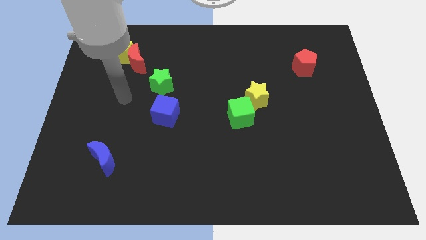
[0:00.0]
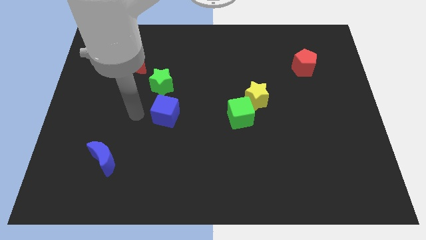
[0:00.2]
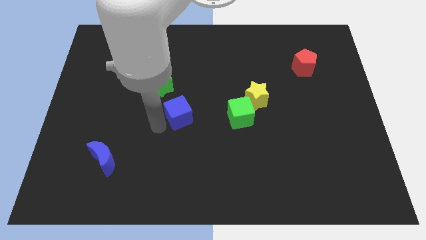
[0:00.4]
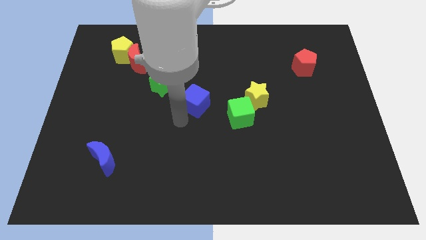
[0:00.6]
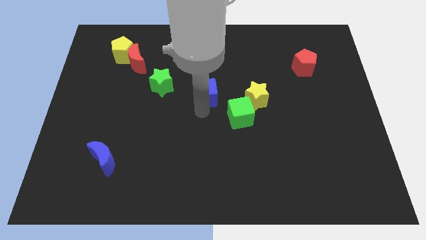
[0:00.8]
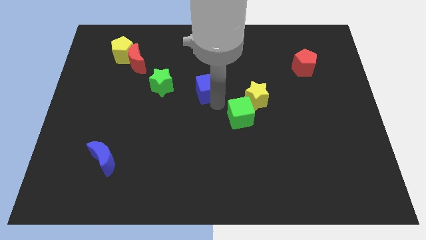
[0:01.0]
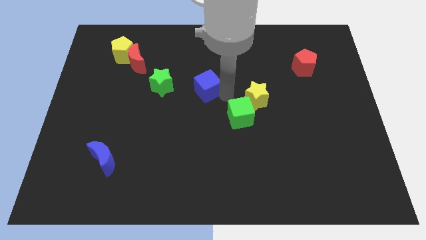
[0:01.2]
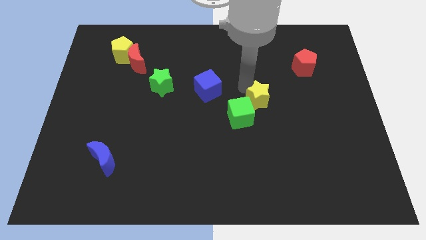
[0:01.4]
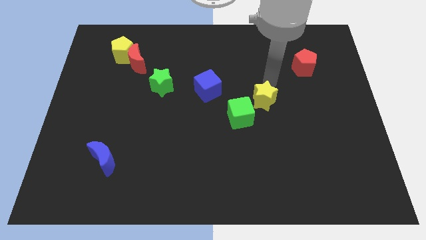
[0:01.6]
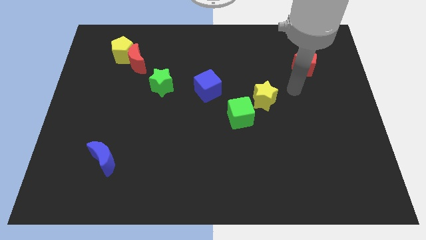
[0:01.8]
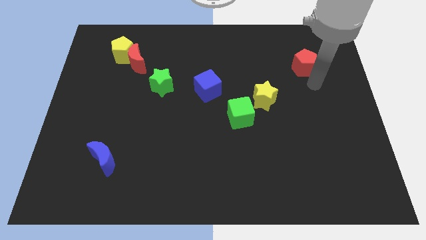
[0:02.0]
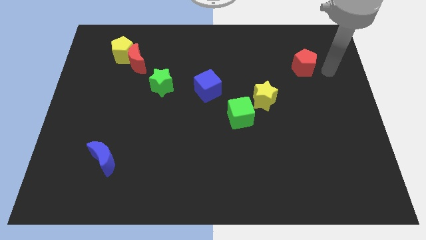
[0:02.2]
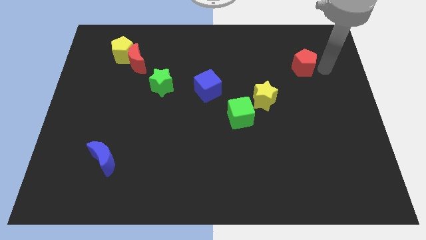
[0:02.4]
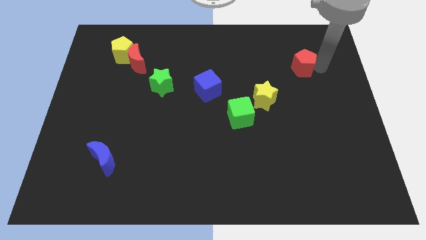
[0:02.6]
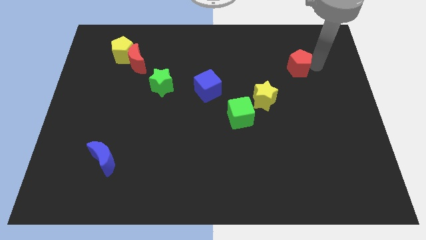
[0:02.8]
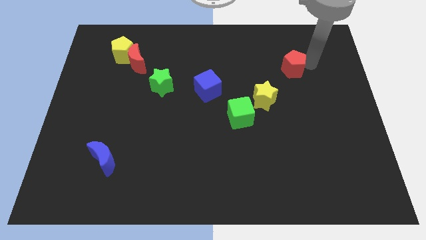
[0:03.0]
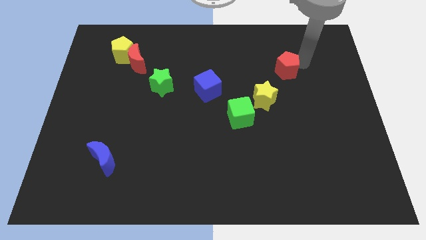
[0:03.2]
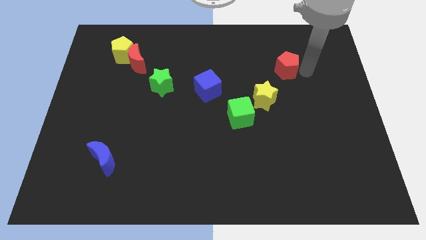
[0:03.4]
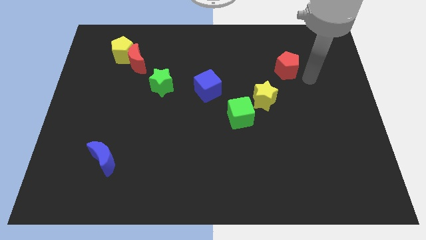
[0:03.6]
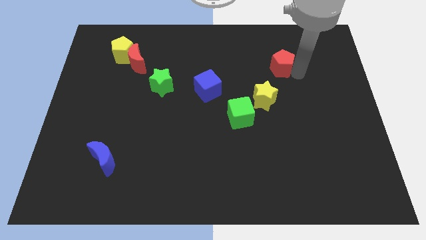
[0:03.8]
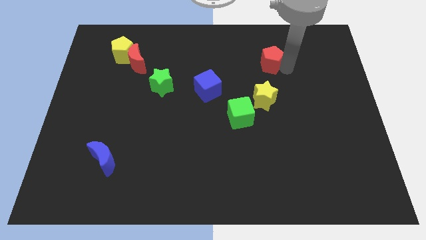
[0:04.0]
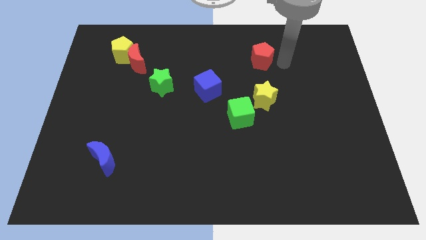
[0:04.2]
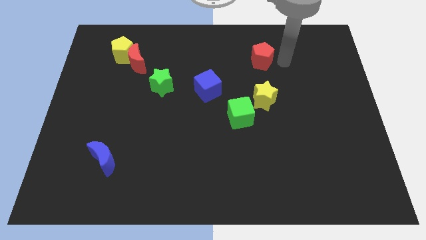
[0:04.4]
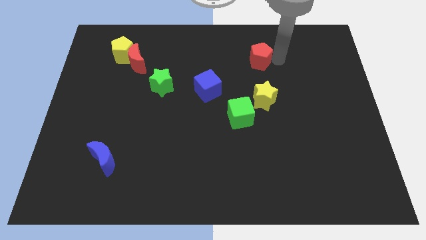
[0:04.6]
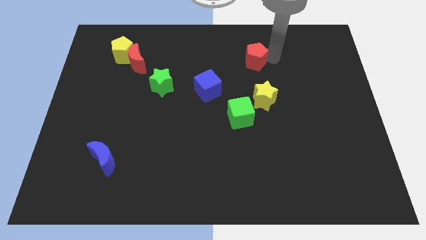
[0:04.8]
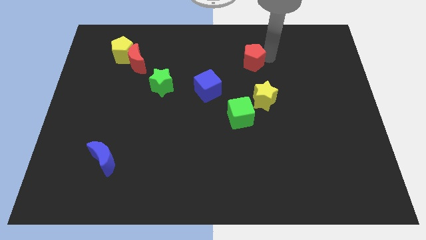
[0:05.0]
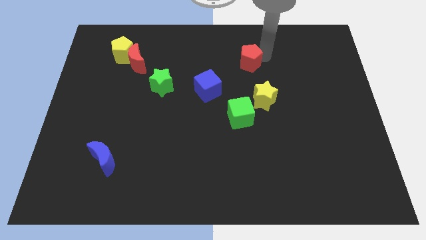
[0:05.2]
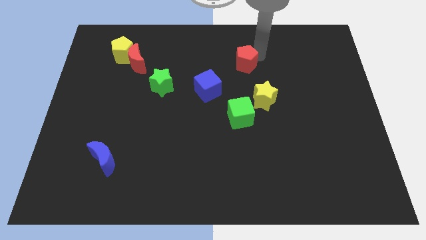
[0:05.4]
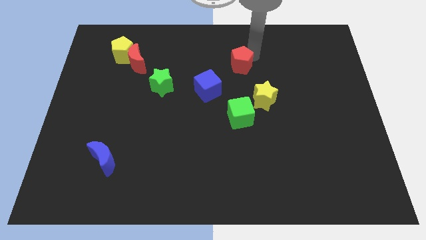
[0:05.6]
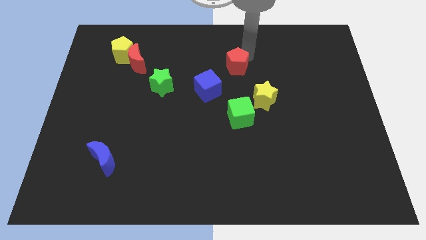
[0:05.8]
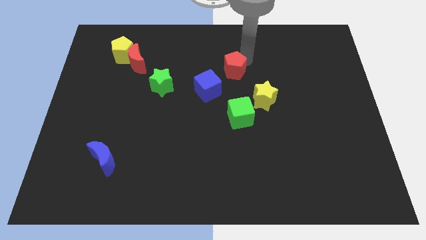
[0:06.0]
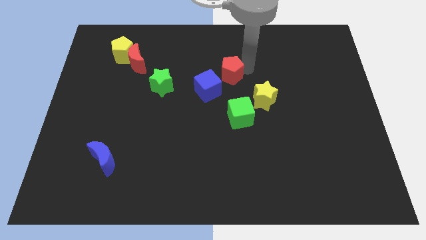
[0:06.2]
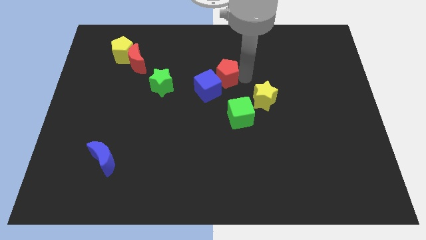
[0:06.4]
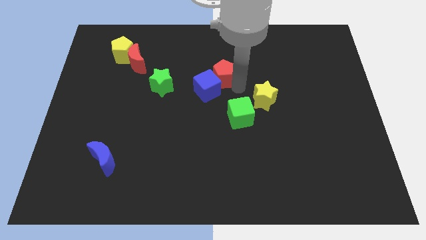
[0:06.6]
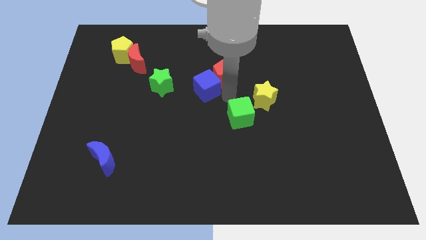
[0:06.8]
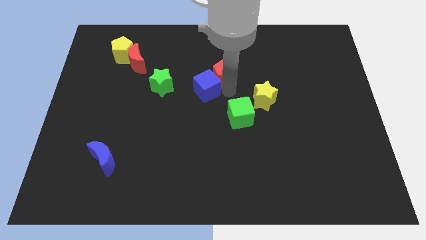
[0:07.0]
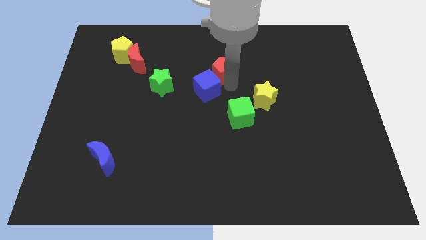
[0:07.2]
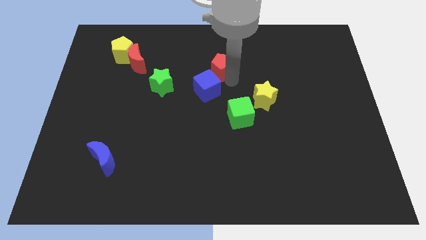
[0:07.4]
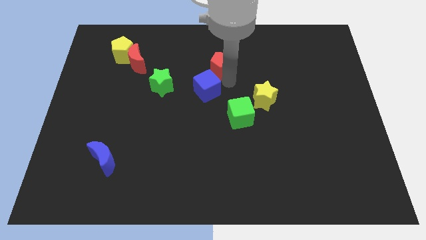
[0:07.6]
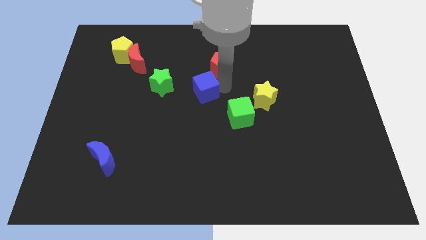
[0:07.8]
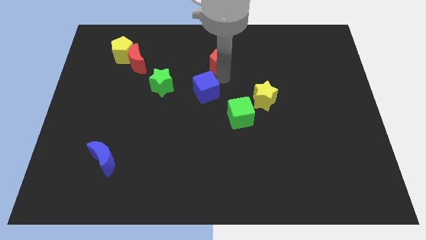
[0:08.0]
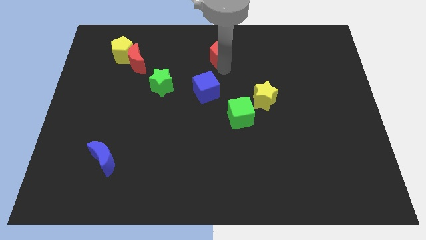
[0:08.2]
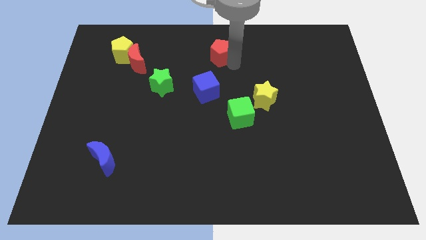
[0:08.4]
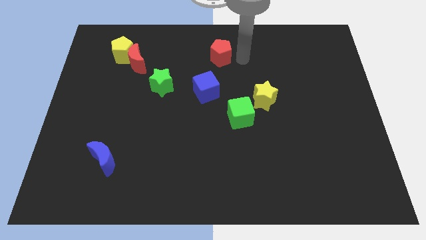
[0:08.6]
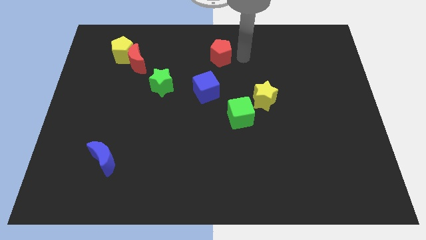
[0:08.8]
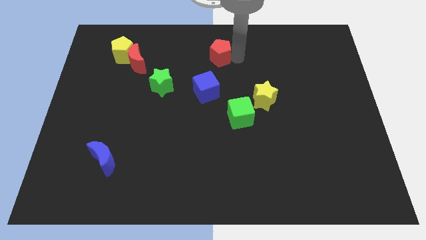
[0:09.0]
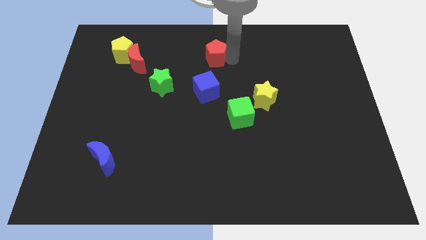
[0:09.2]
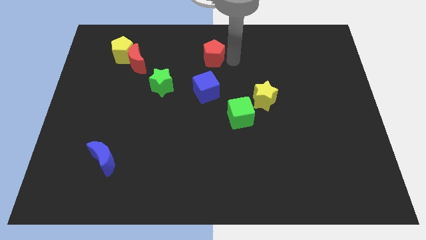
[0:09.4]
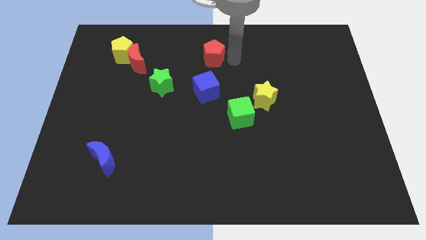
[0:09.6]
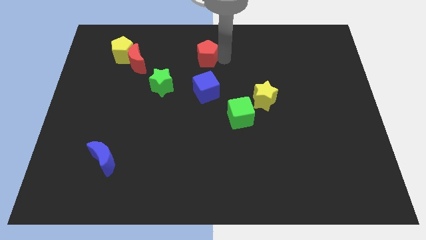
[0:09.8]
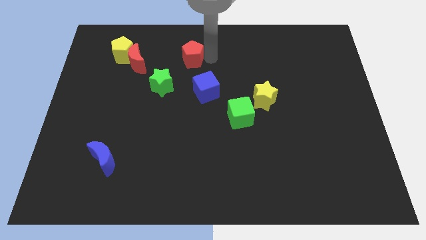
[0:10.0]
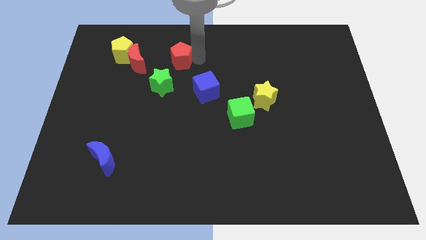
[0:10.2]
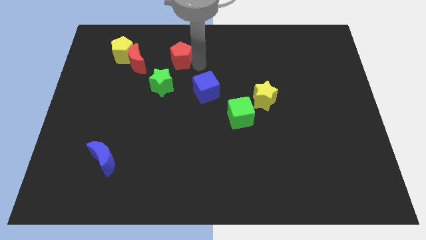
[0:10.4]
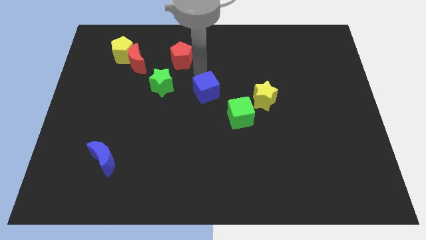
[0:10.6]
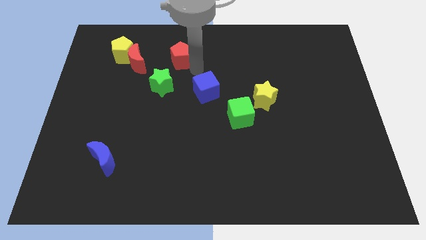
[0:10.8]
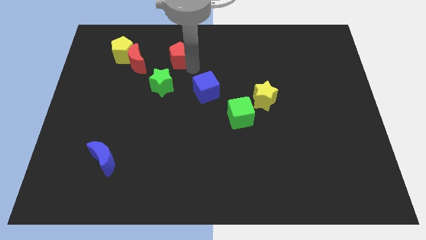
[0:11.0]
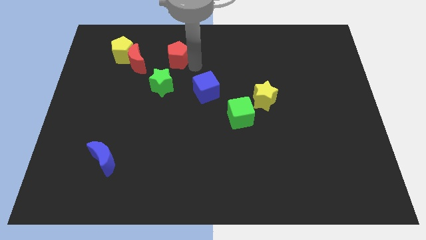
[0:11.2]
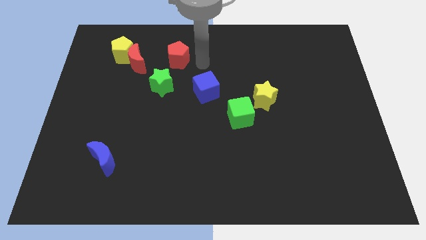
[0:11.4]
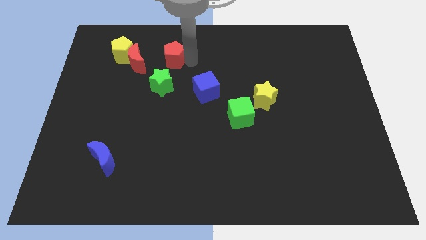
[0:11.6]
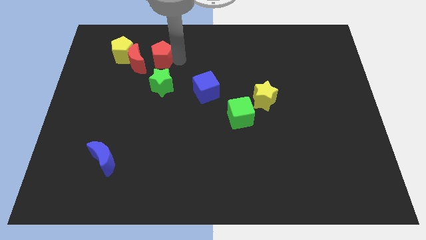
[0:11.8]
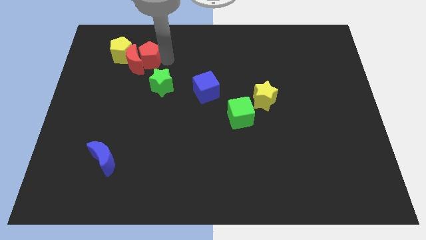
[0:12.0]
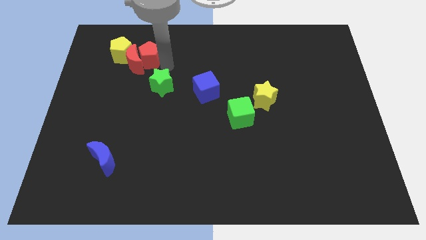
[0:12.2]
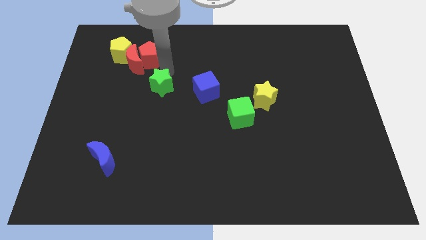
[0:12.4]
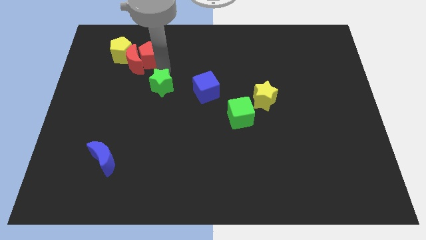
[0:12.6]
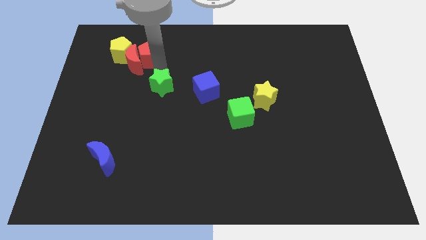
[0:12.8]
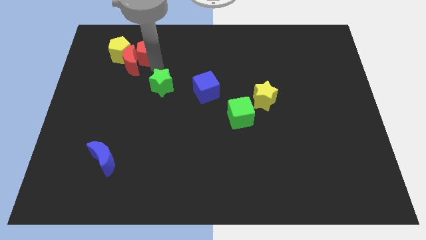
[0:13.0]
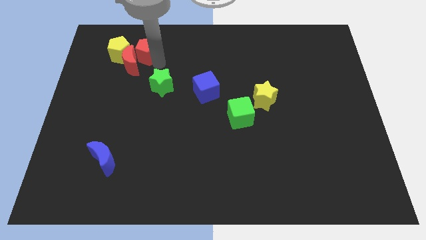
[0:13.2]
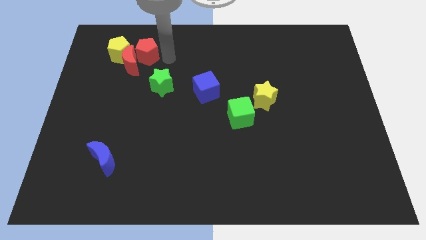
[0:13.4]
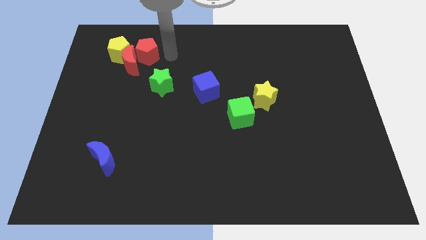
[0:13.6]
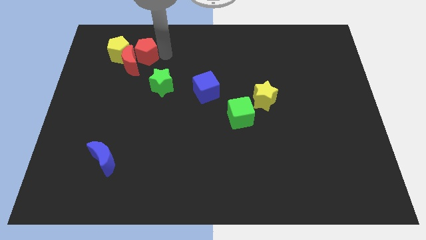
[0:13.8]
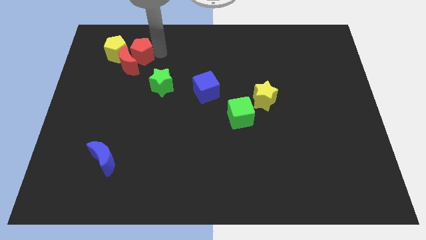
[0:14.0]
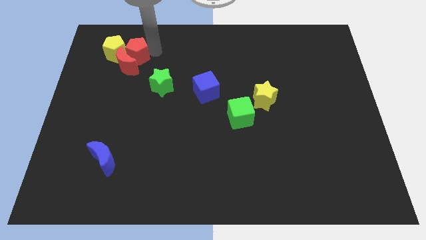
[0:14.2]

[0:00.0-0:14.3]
put the red pentagon to the yellow pentagon

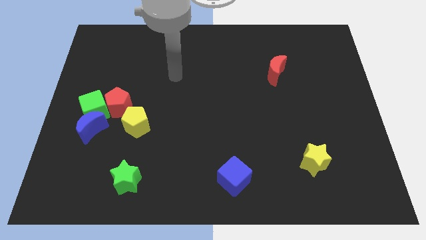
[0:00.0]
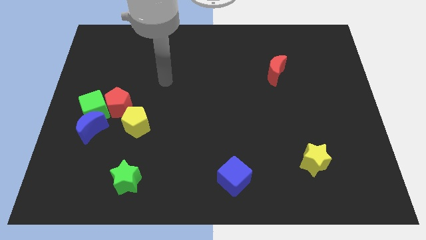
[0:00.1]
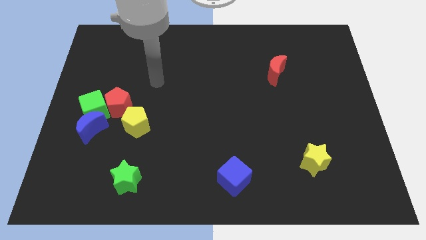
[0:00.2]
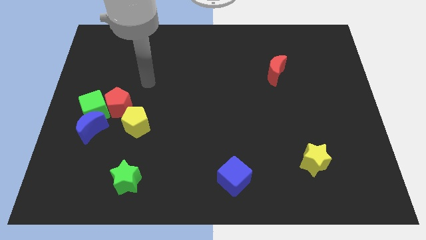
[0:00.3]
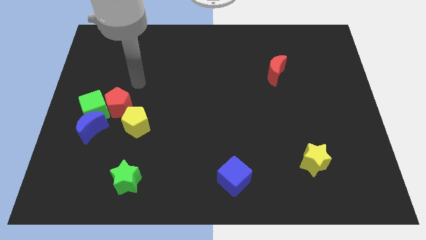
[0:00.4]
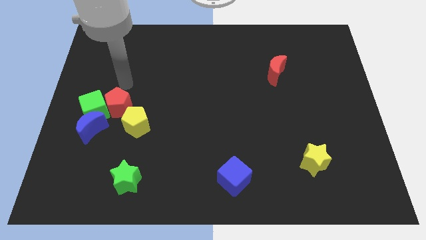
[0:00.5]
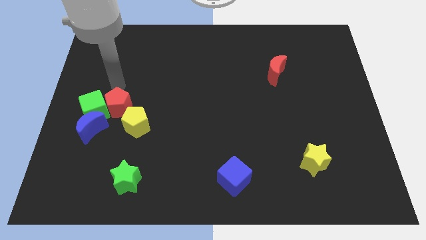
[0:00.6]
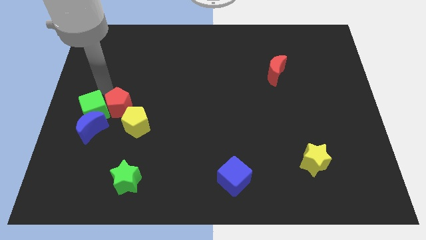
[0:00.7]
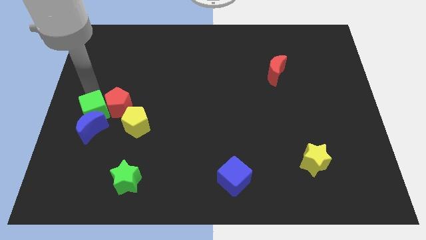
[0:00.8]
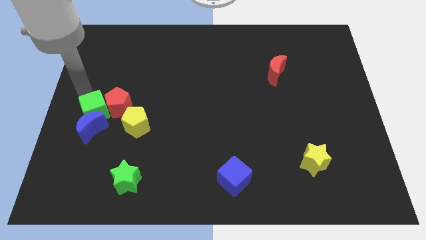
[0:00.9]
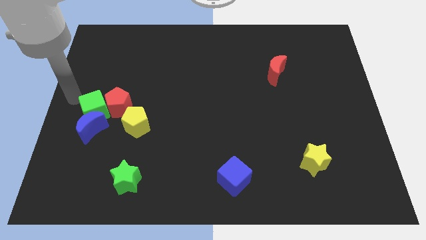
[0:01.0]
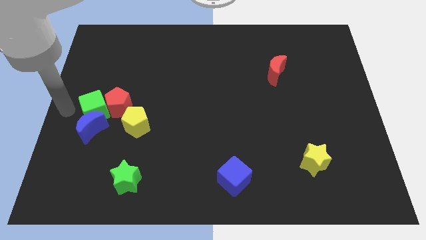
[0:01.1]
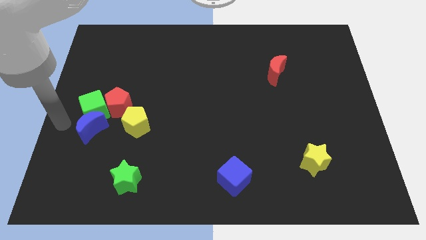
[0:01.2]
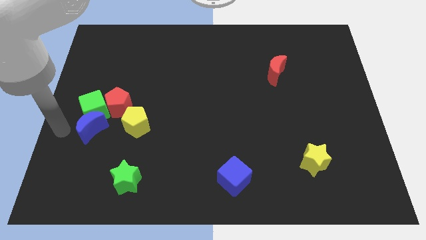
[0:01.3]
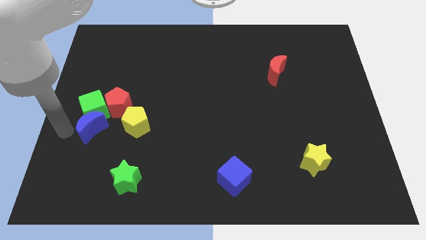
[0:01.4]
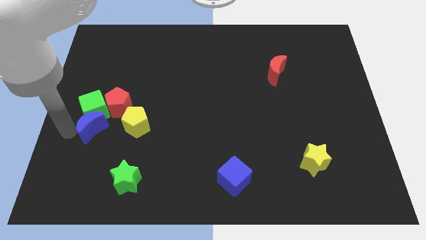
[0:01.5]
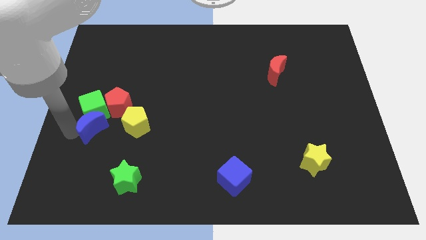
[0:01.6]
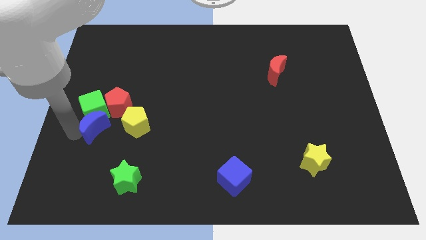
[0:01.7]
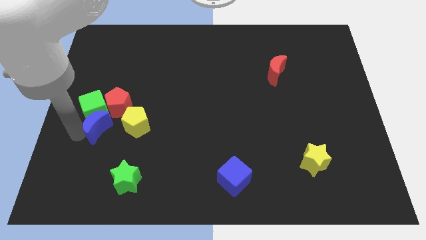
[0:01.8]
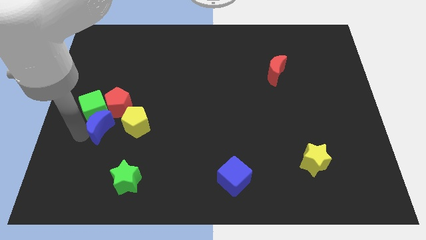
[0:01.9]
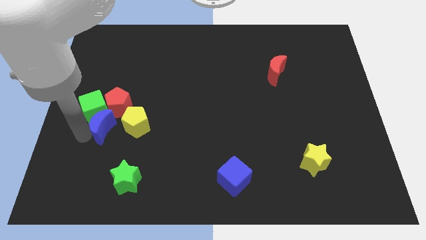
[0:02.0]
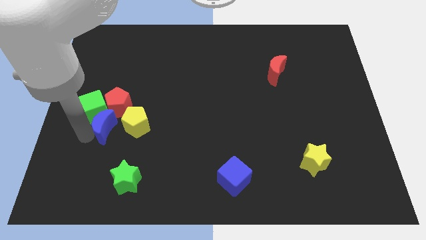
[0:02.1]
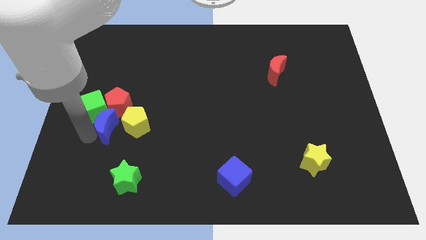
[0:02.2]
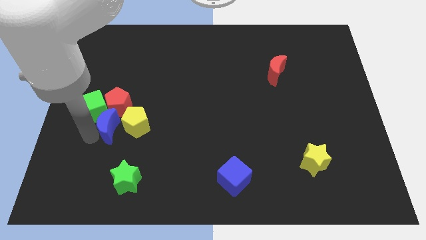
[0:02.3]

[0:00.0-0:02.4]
move the blue moon towards the yellow pentagon
